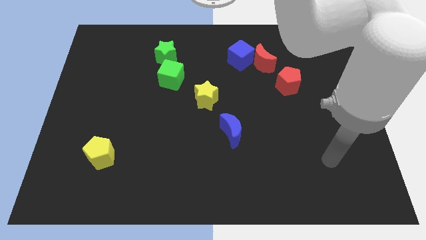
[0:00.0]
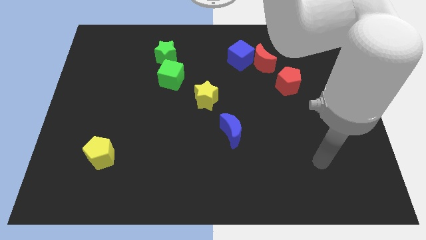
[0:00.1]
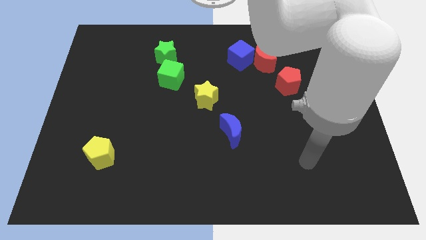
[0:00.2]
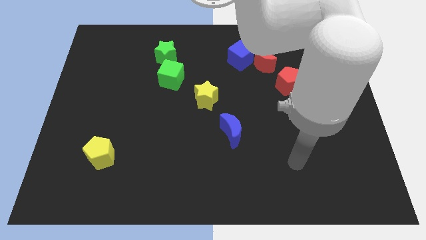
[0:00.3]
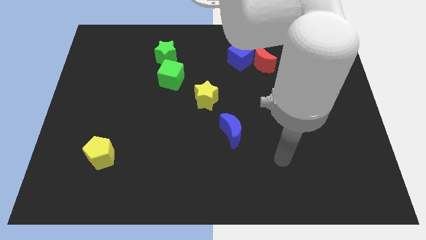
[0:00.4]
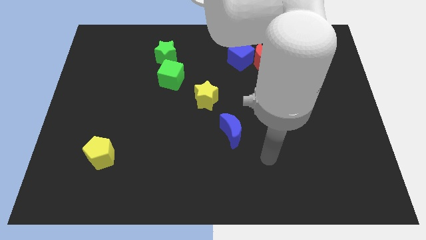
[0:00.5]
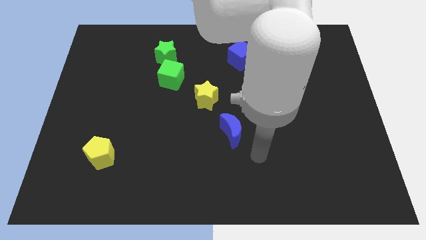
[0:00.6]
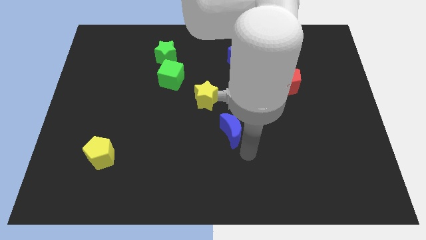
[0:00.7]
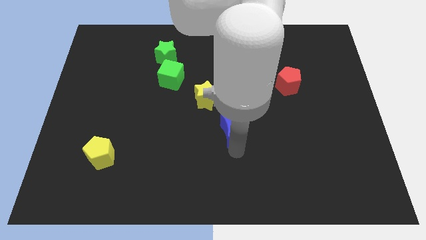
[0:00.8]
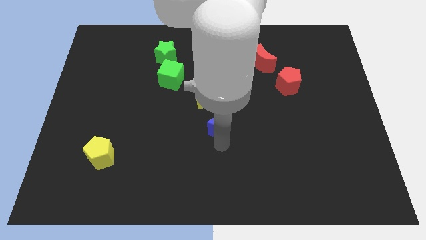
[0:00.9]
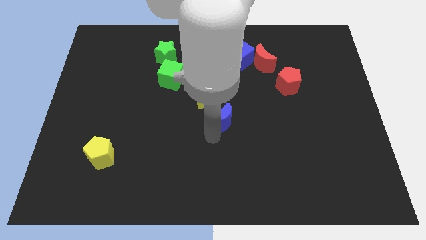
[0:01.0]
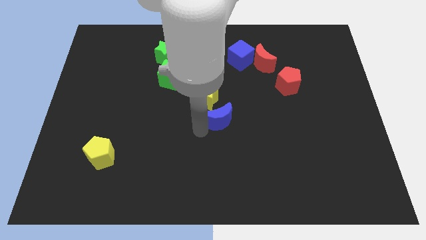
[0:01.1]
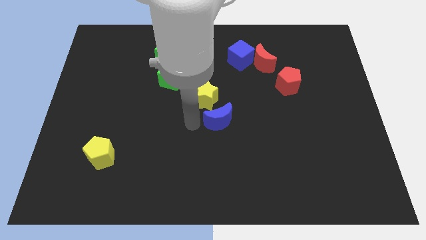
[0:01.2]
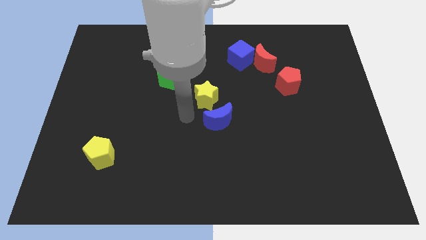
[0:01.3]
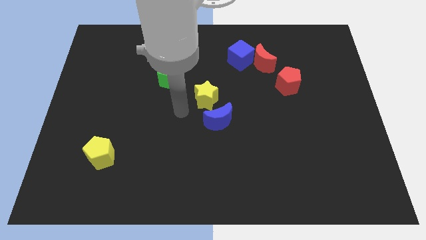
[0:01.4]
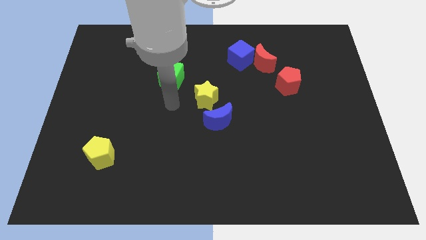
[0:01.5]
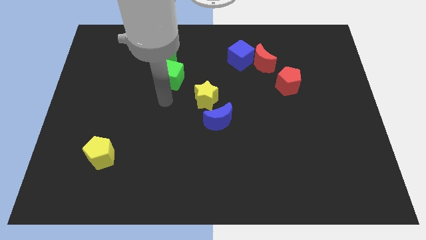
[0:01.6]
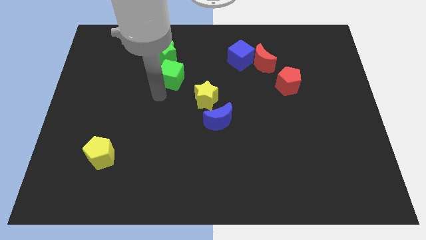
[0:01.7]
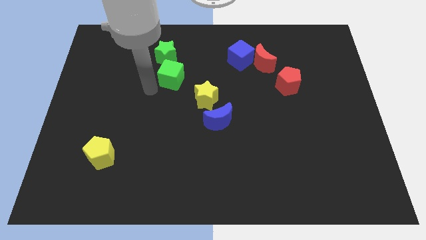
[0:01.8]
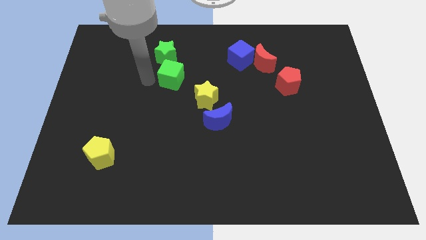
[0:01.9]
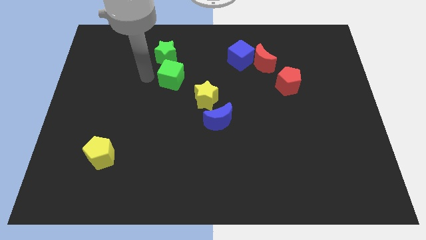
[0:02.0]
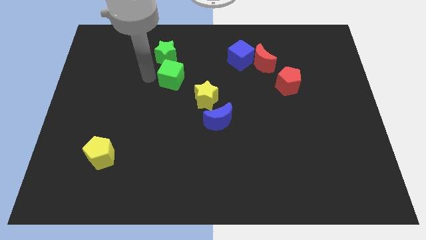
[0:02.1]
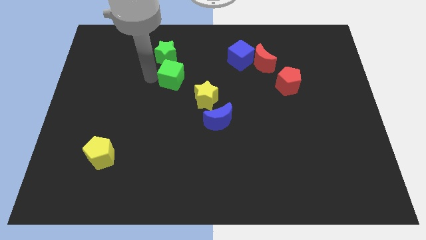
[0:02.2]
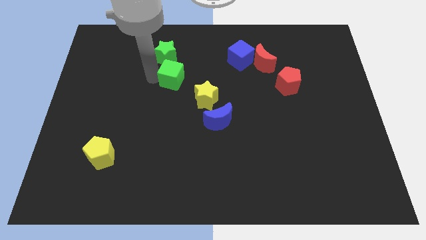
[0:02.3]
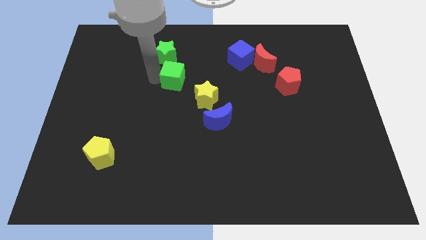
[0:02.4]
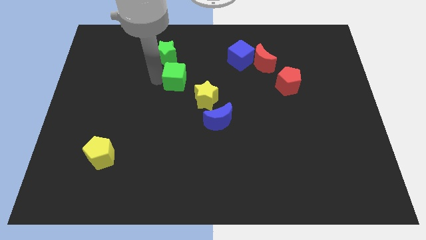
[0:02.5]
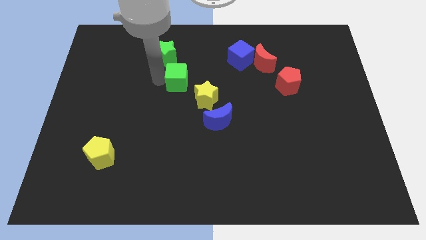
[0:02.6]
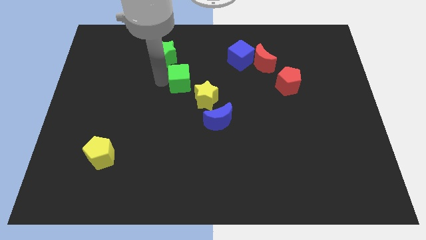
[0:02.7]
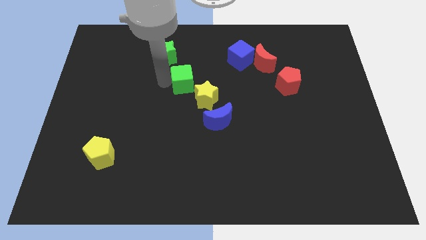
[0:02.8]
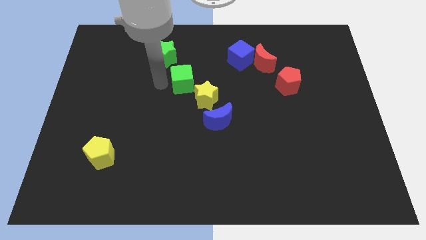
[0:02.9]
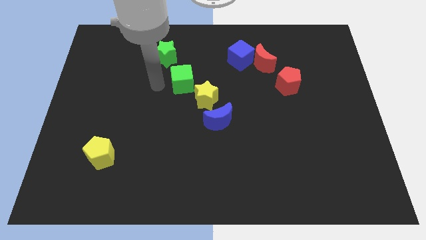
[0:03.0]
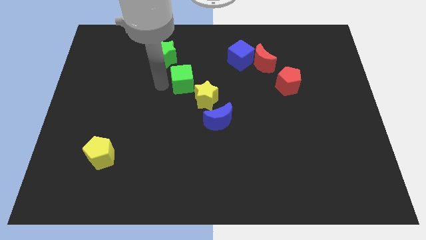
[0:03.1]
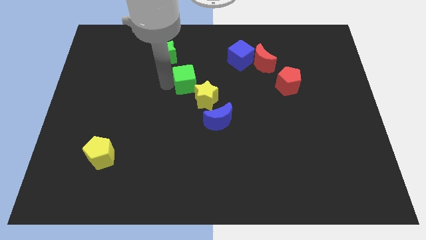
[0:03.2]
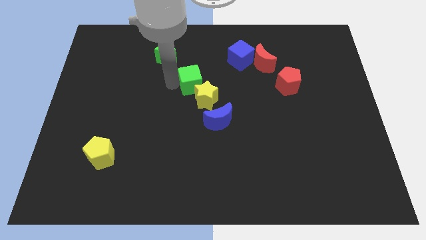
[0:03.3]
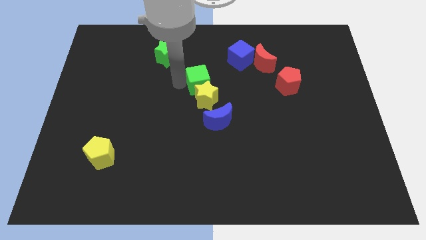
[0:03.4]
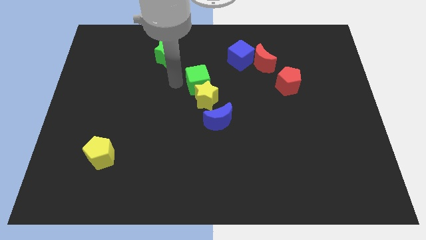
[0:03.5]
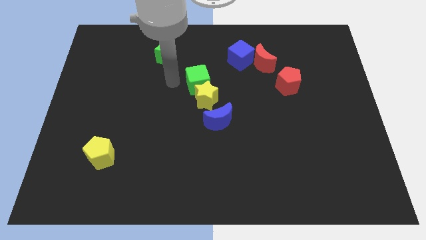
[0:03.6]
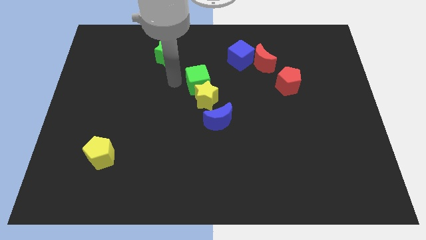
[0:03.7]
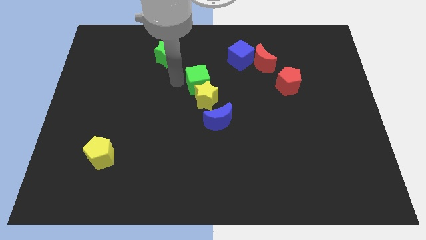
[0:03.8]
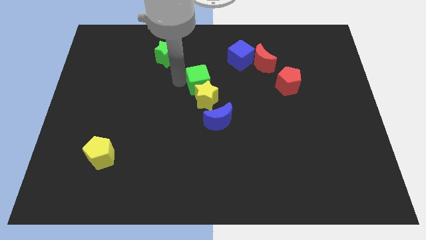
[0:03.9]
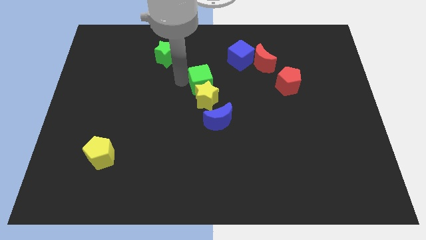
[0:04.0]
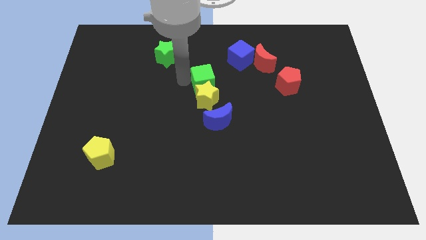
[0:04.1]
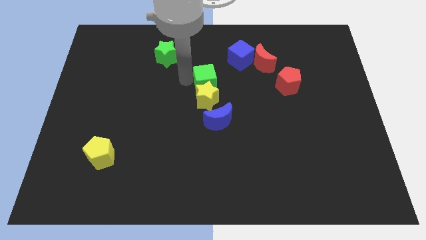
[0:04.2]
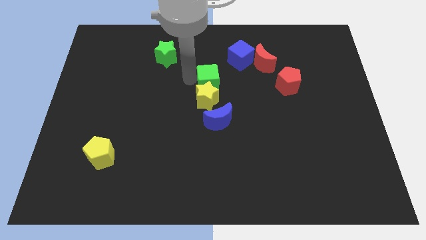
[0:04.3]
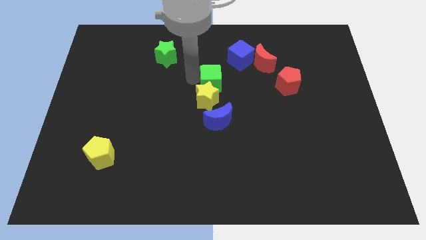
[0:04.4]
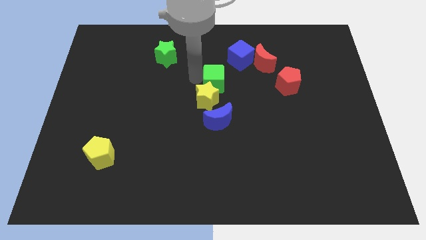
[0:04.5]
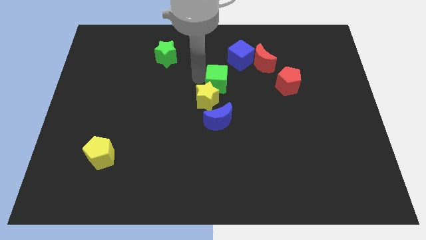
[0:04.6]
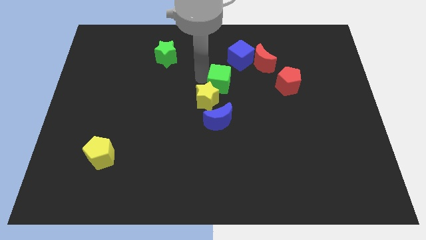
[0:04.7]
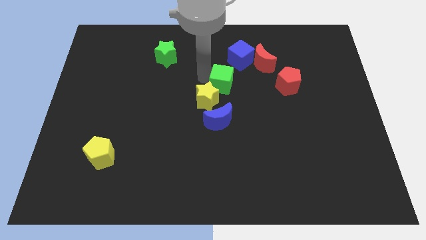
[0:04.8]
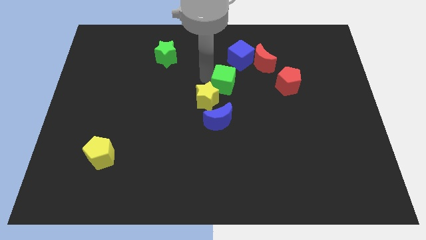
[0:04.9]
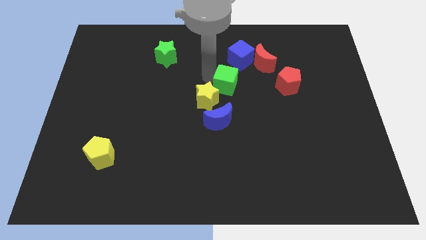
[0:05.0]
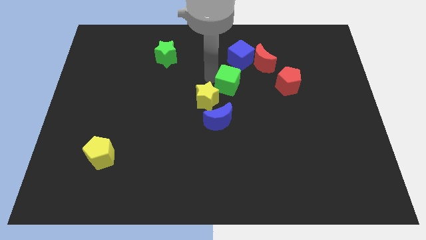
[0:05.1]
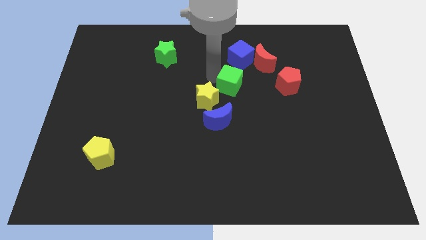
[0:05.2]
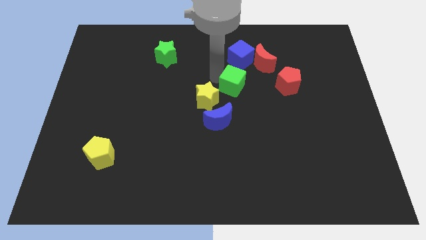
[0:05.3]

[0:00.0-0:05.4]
slide the green cube right of the yellow star

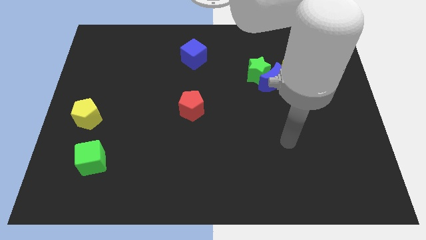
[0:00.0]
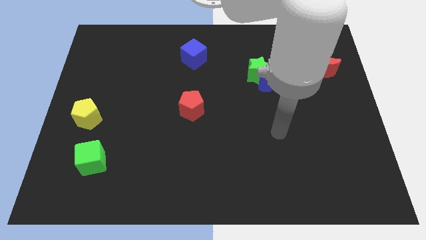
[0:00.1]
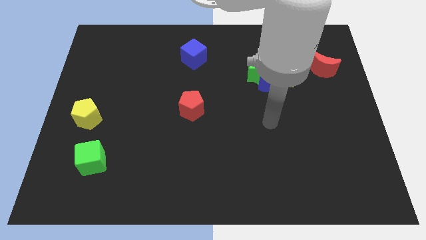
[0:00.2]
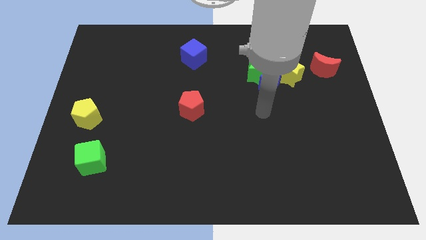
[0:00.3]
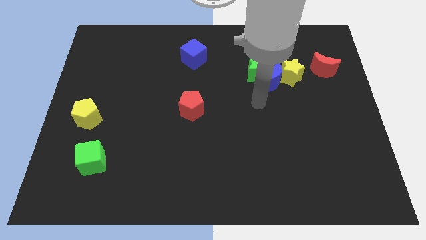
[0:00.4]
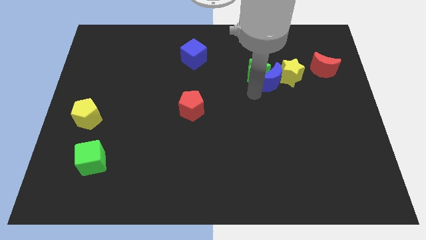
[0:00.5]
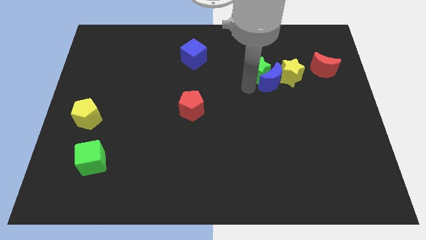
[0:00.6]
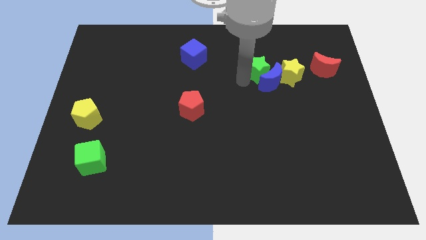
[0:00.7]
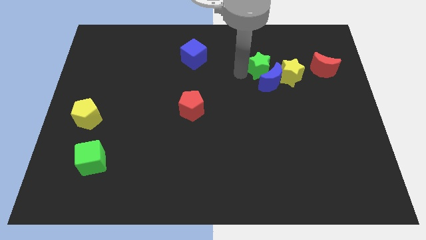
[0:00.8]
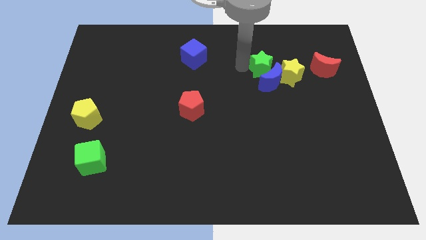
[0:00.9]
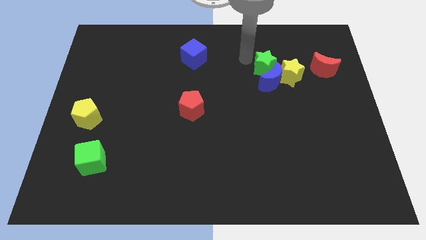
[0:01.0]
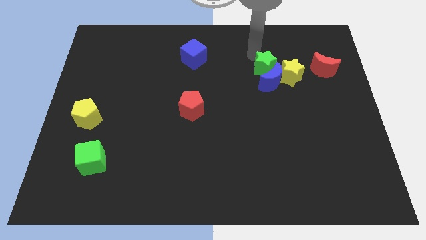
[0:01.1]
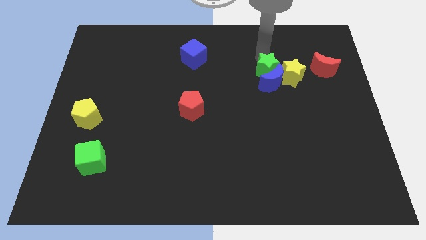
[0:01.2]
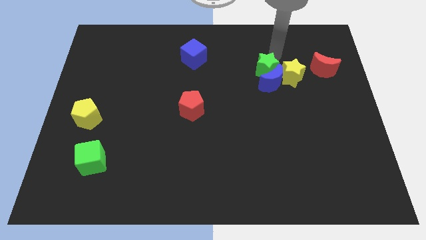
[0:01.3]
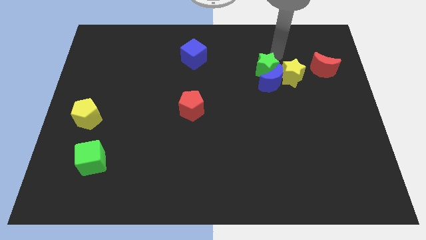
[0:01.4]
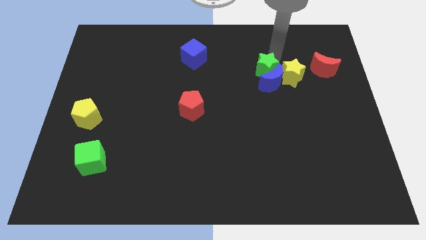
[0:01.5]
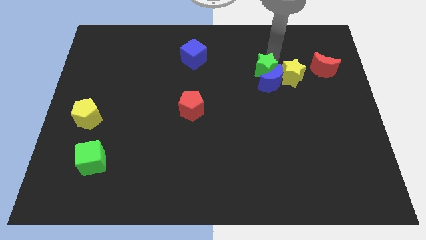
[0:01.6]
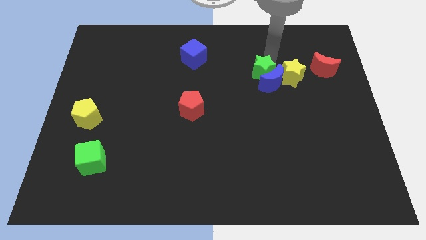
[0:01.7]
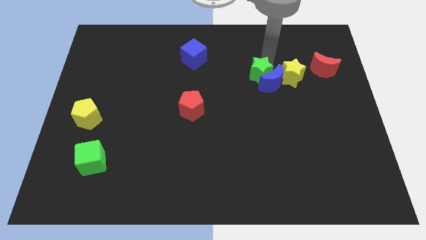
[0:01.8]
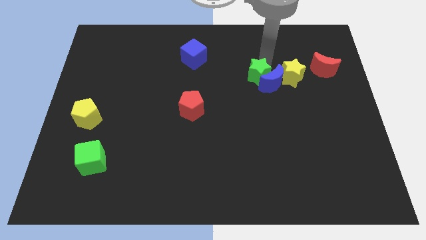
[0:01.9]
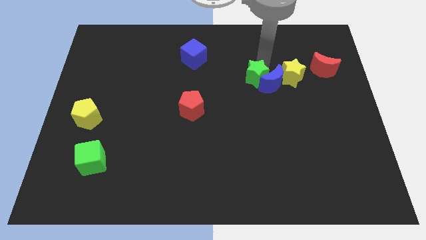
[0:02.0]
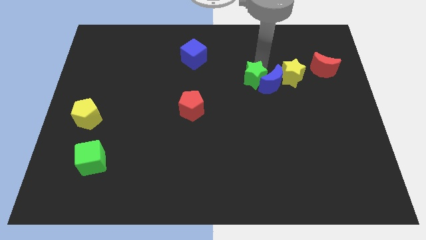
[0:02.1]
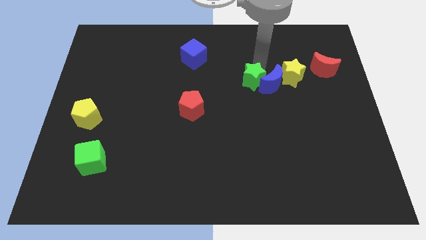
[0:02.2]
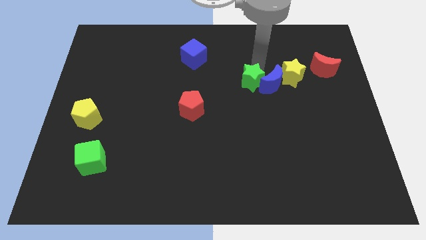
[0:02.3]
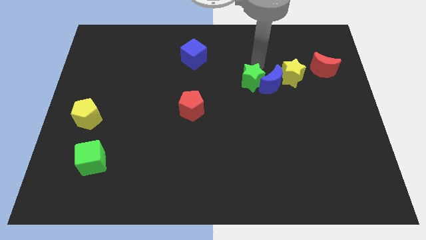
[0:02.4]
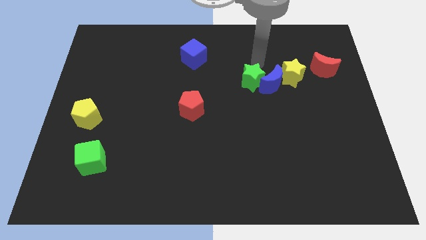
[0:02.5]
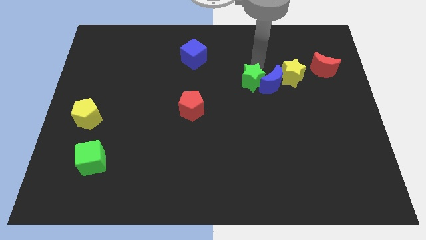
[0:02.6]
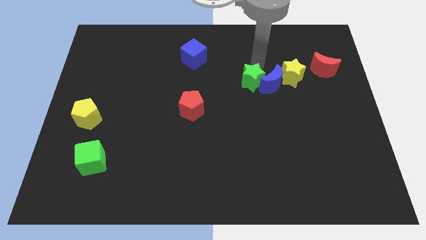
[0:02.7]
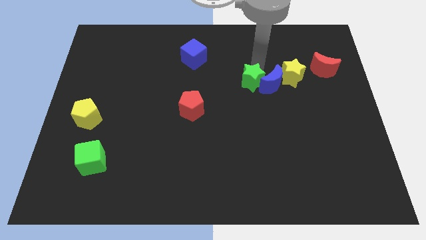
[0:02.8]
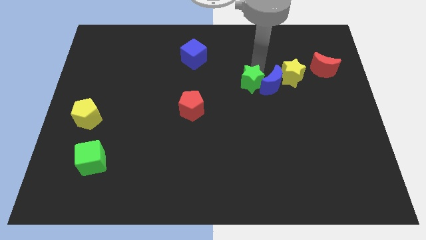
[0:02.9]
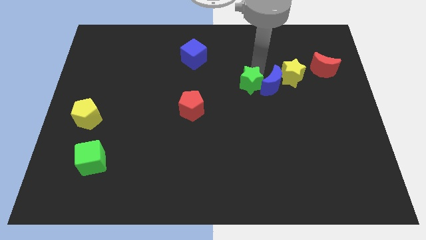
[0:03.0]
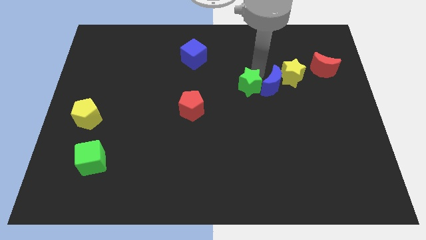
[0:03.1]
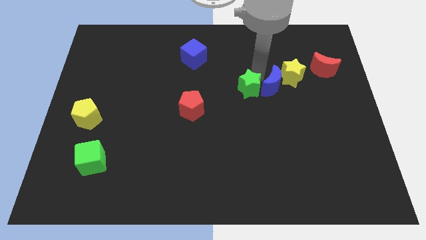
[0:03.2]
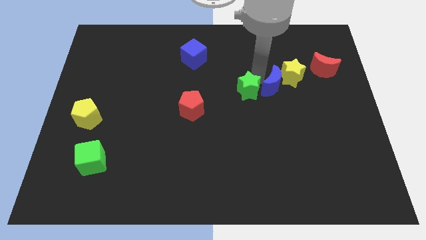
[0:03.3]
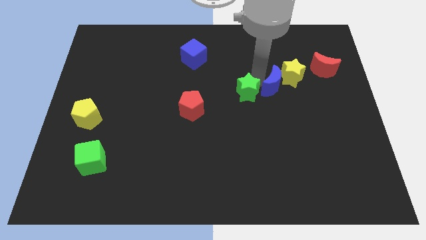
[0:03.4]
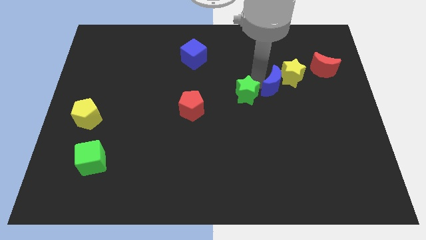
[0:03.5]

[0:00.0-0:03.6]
put the green star right of the red pentagon
